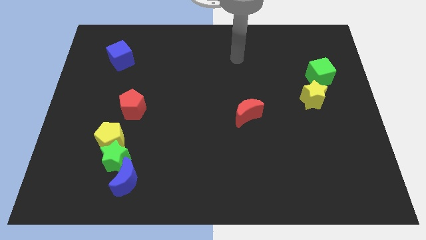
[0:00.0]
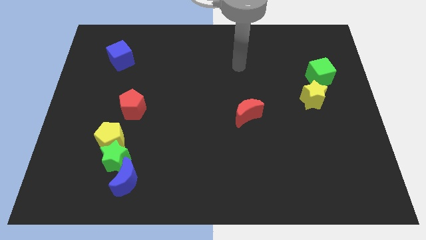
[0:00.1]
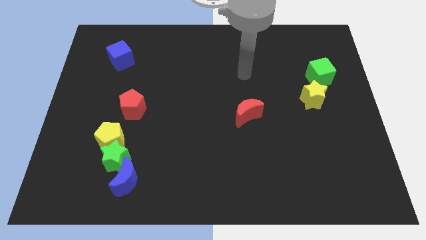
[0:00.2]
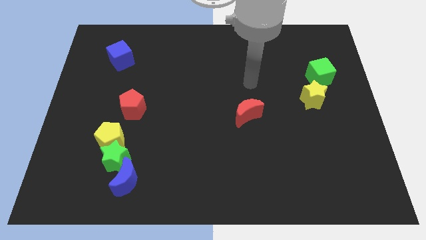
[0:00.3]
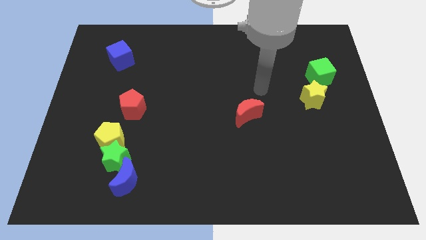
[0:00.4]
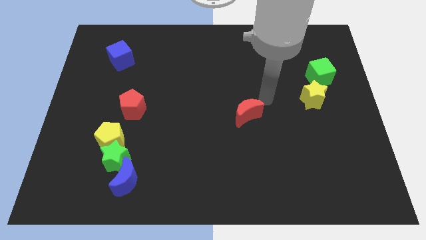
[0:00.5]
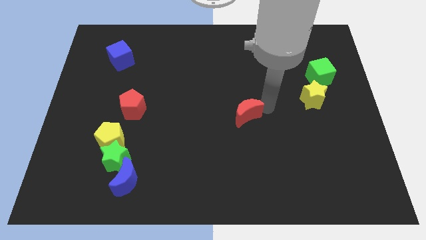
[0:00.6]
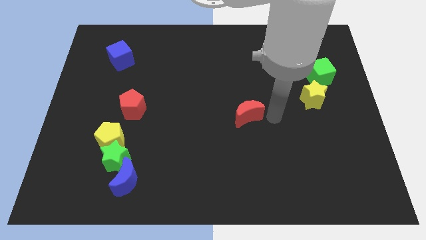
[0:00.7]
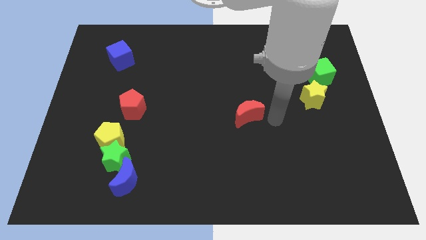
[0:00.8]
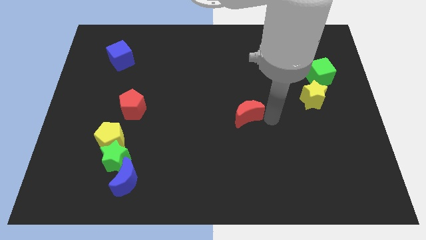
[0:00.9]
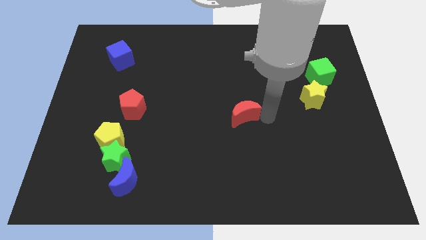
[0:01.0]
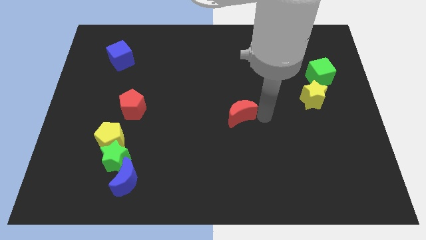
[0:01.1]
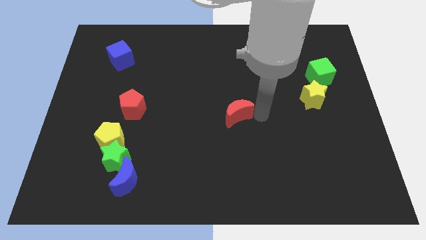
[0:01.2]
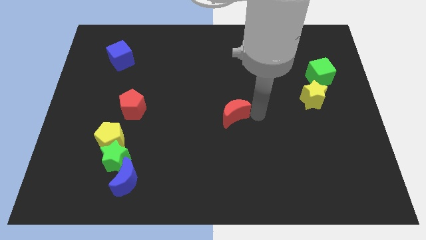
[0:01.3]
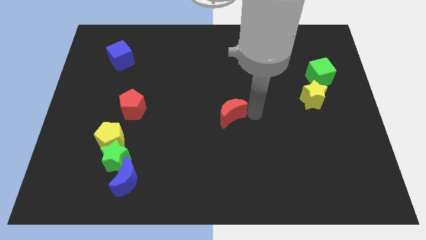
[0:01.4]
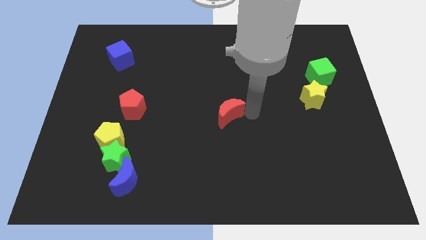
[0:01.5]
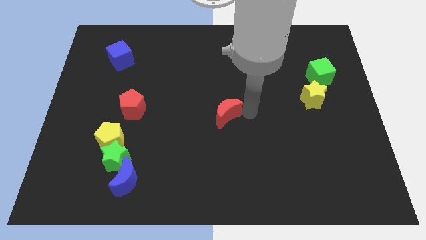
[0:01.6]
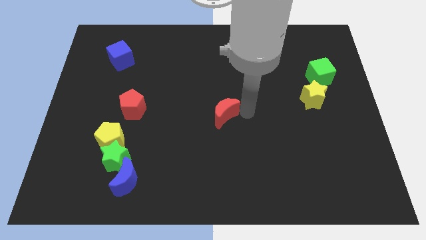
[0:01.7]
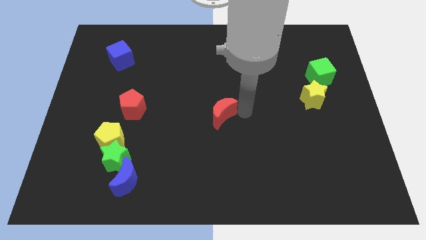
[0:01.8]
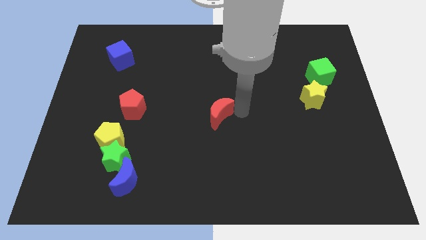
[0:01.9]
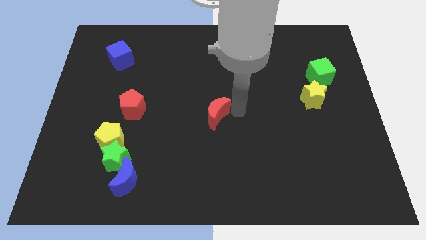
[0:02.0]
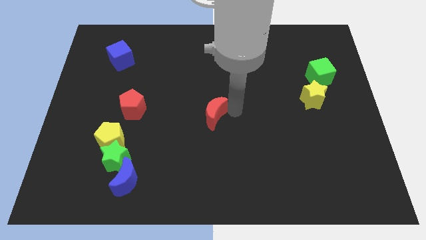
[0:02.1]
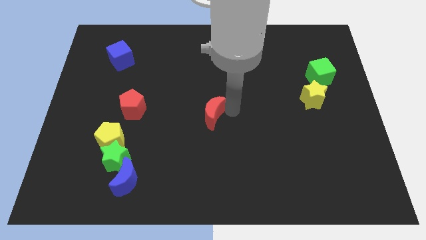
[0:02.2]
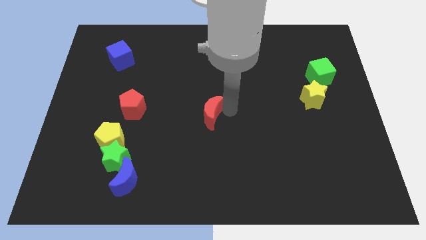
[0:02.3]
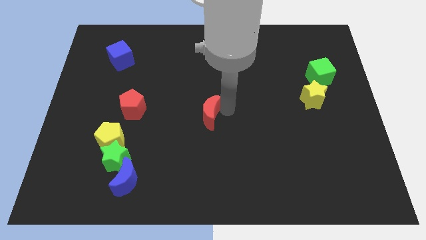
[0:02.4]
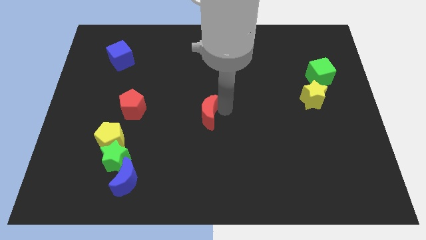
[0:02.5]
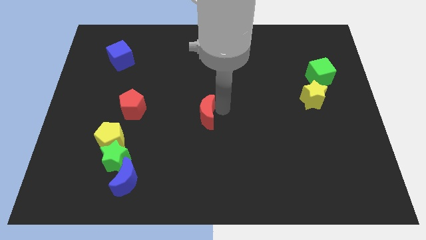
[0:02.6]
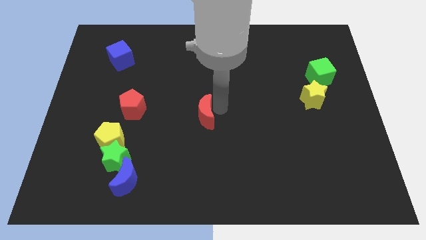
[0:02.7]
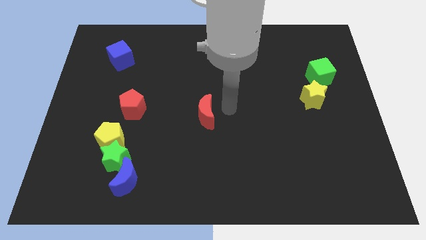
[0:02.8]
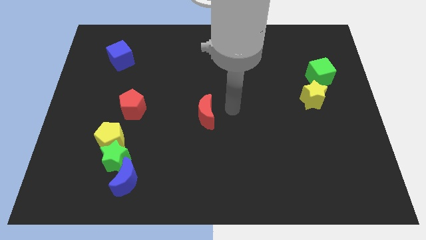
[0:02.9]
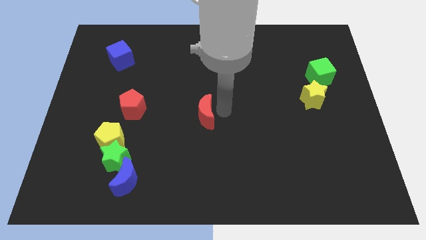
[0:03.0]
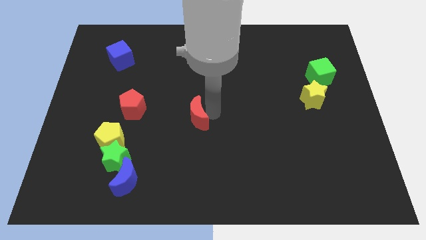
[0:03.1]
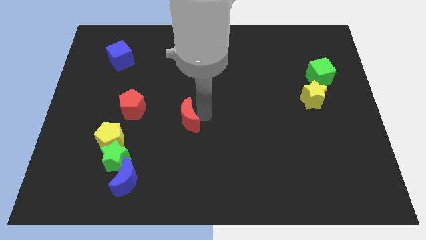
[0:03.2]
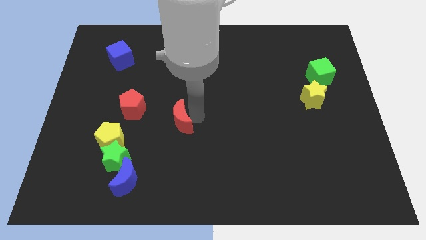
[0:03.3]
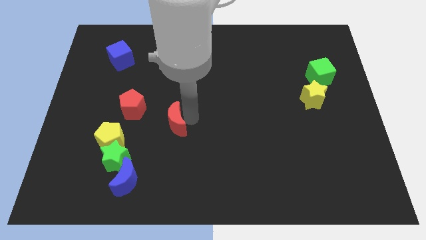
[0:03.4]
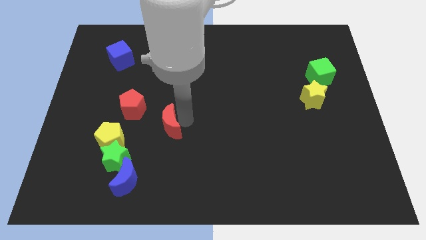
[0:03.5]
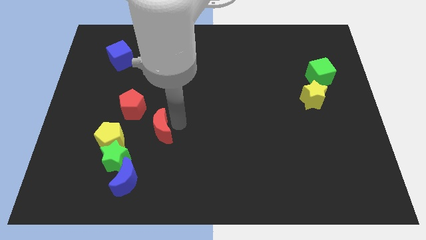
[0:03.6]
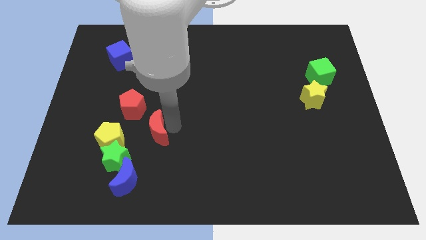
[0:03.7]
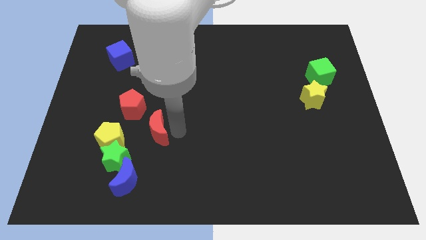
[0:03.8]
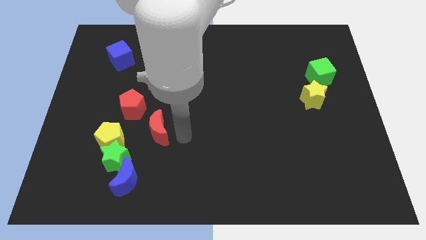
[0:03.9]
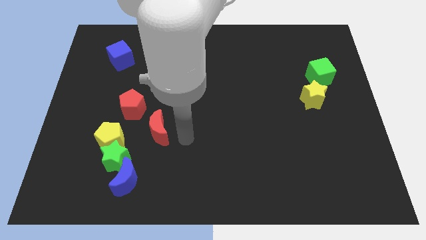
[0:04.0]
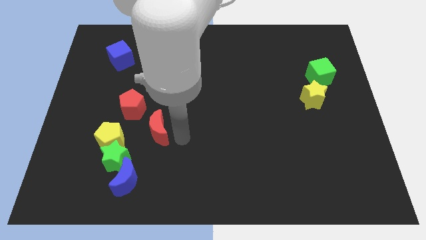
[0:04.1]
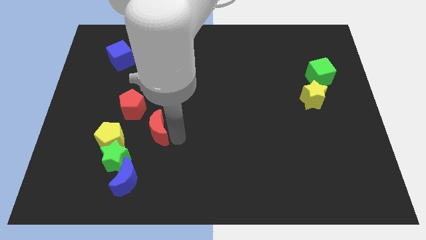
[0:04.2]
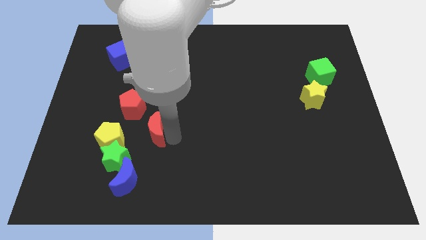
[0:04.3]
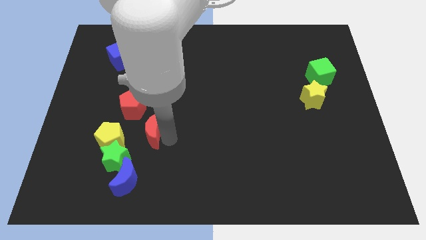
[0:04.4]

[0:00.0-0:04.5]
slide the red moon left

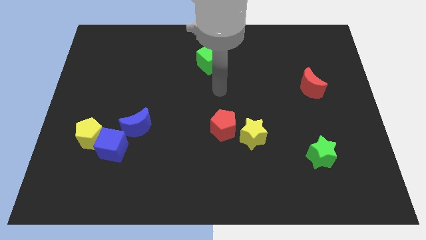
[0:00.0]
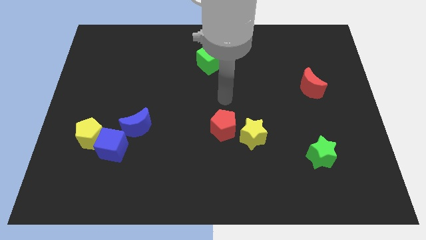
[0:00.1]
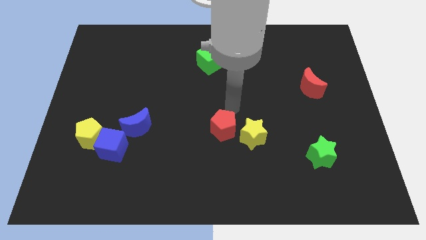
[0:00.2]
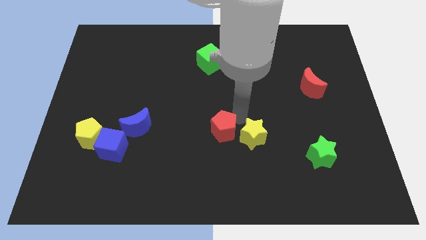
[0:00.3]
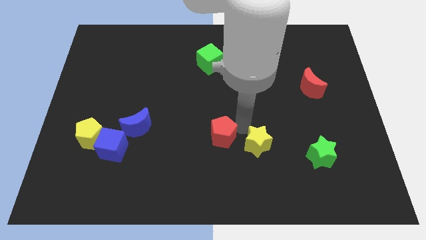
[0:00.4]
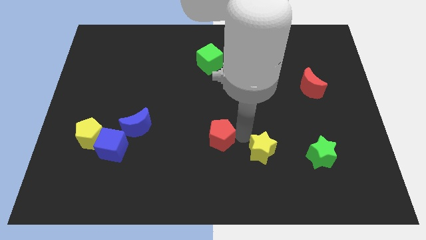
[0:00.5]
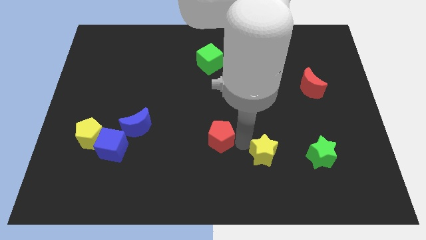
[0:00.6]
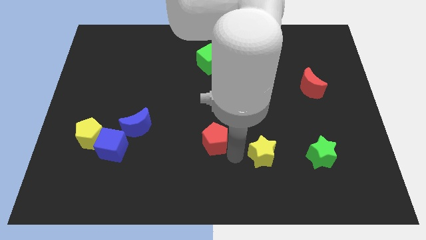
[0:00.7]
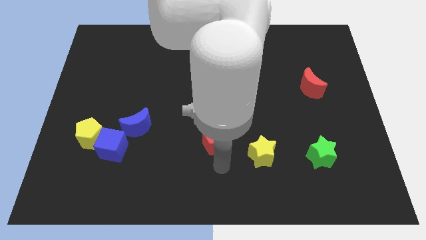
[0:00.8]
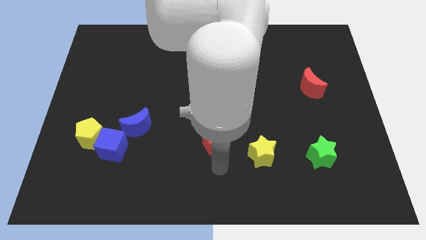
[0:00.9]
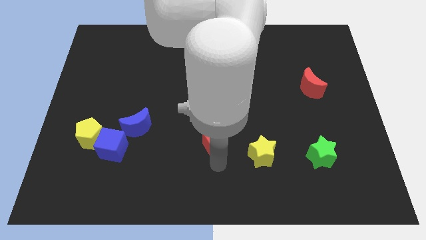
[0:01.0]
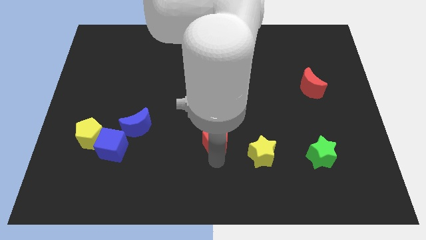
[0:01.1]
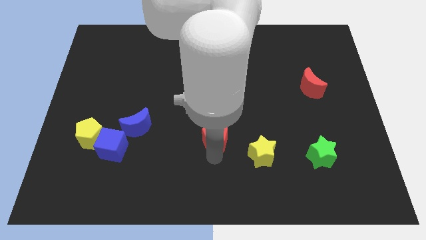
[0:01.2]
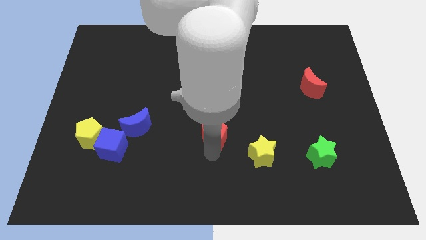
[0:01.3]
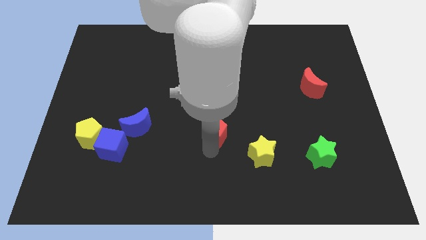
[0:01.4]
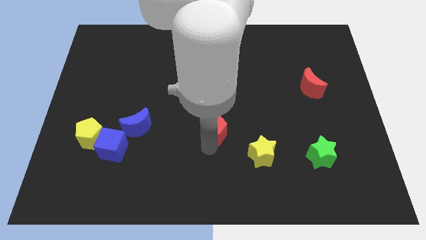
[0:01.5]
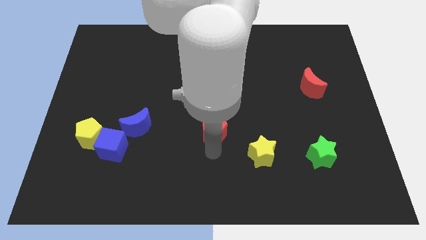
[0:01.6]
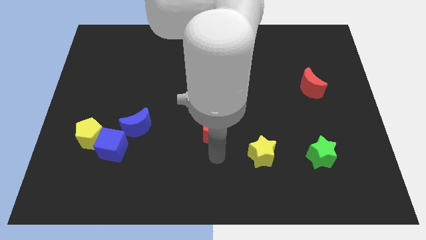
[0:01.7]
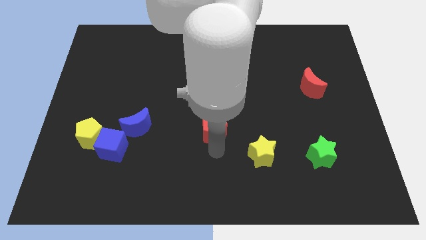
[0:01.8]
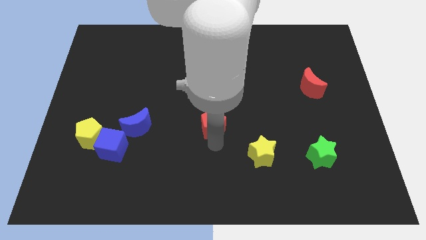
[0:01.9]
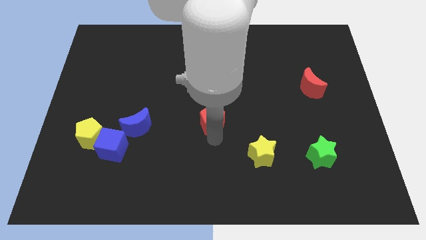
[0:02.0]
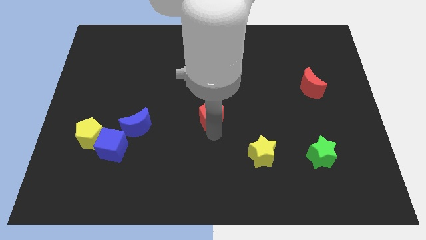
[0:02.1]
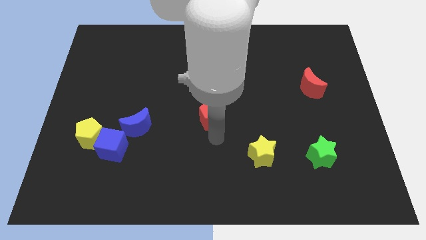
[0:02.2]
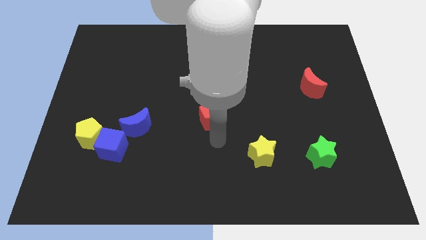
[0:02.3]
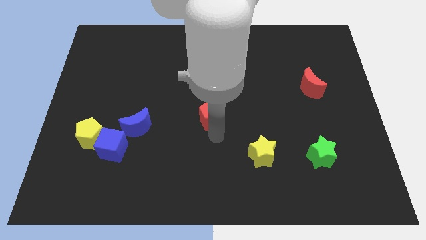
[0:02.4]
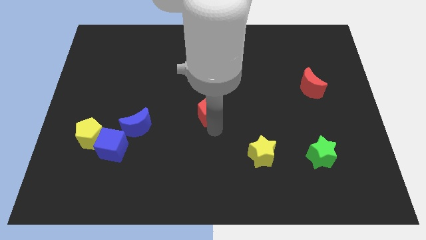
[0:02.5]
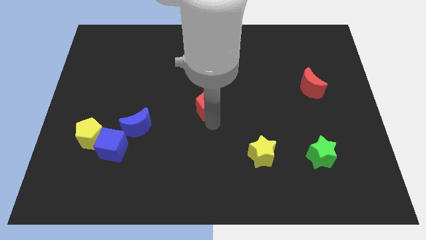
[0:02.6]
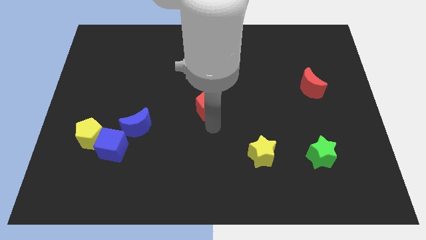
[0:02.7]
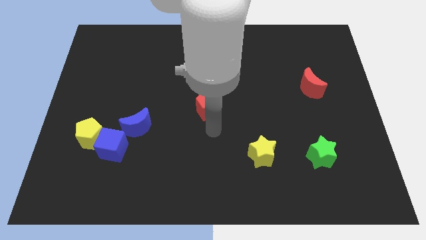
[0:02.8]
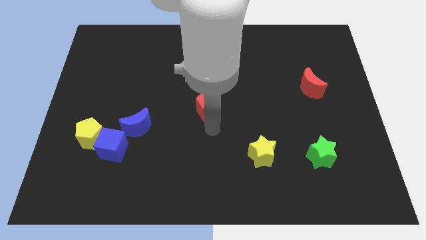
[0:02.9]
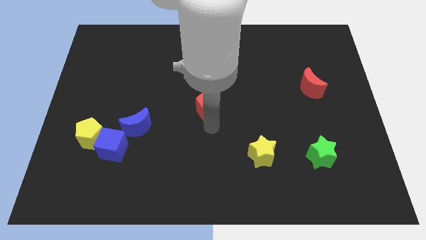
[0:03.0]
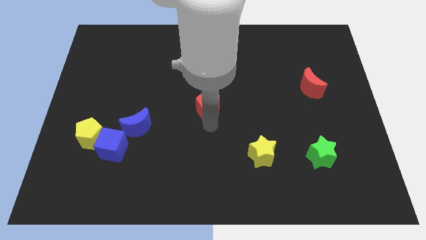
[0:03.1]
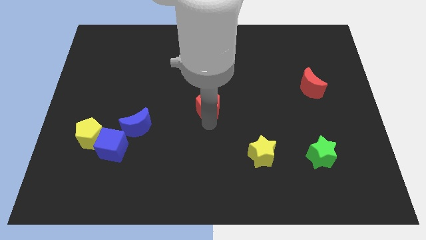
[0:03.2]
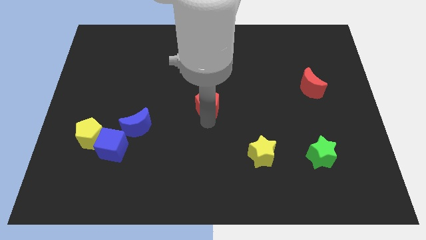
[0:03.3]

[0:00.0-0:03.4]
slightly slide the red pentagon up and then left
